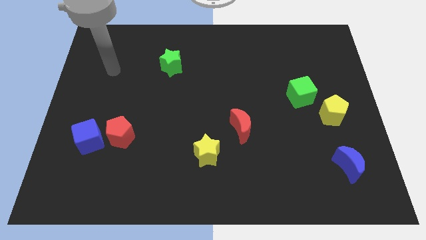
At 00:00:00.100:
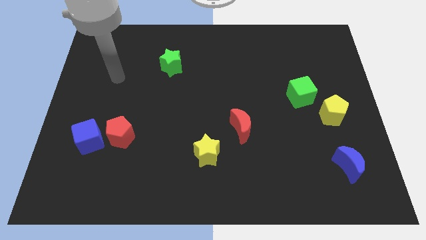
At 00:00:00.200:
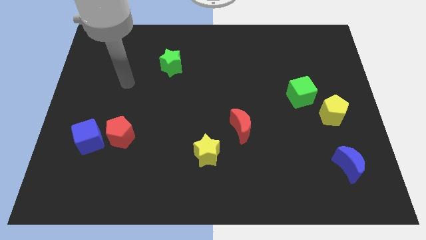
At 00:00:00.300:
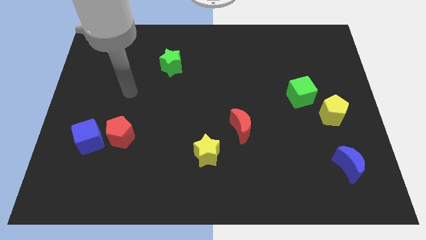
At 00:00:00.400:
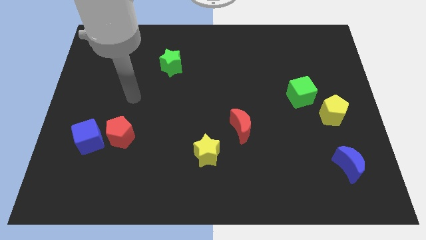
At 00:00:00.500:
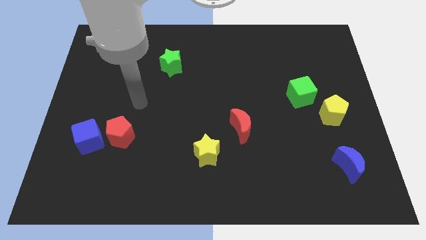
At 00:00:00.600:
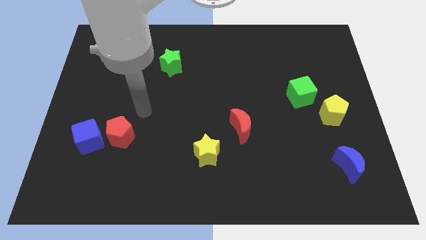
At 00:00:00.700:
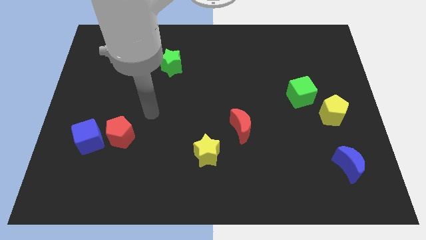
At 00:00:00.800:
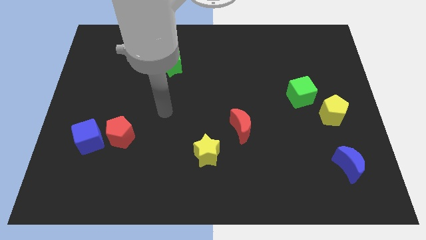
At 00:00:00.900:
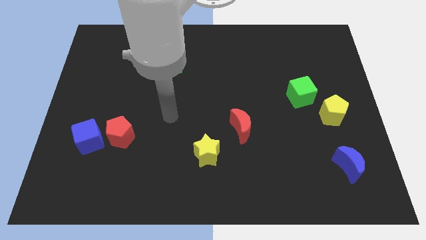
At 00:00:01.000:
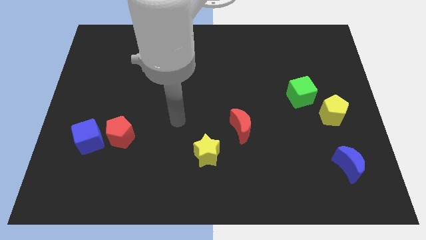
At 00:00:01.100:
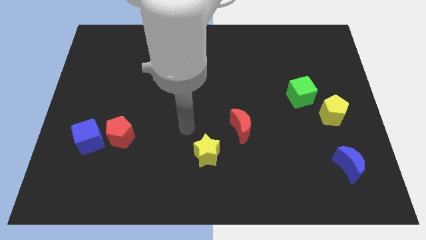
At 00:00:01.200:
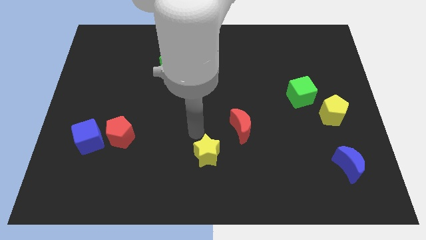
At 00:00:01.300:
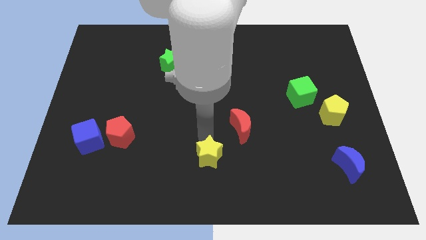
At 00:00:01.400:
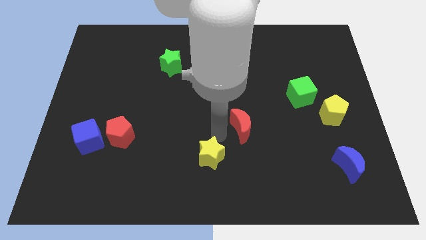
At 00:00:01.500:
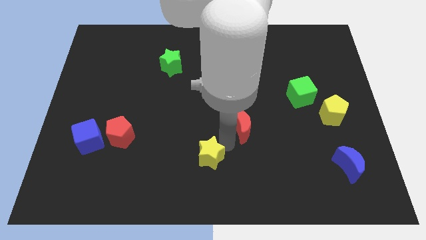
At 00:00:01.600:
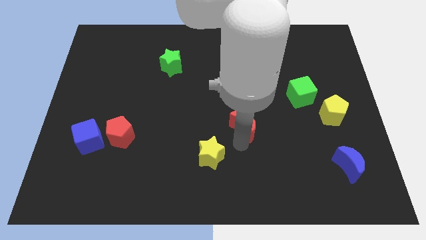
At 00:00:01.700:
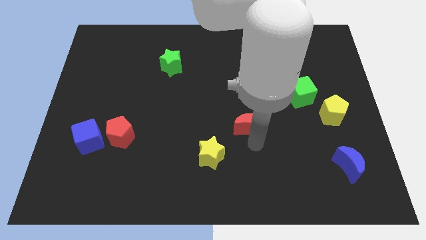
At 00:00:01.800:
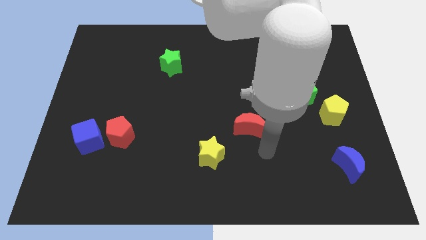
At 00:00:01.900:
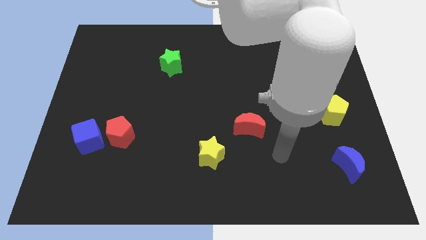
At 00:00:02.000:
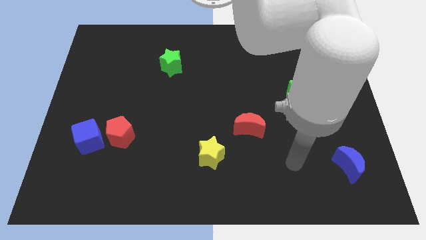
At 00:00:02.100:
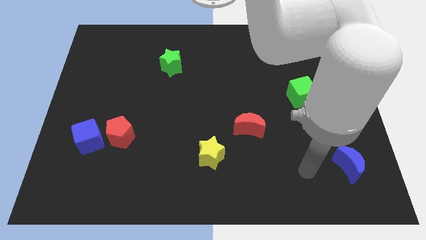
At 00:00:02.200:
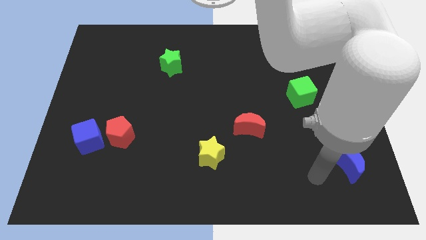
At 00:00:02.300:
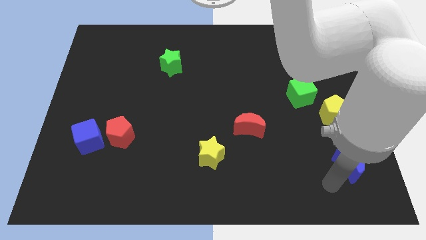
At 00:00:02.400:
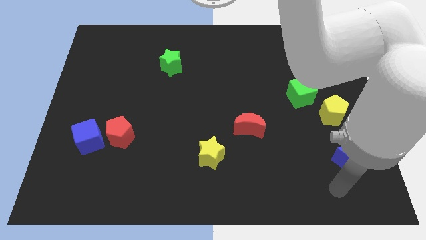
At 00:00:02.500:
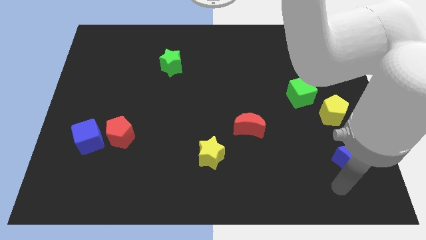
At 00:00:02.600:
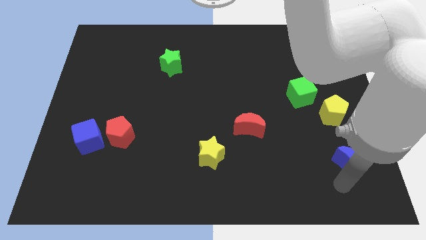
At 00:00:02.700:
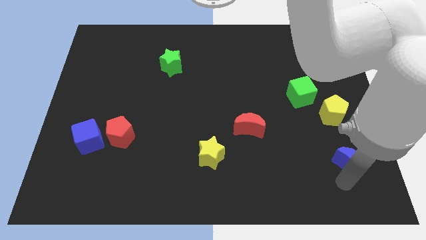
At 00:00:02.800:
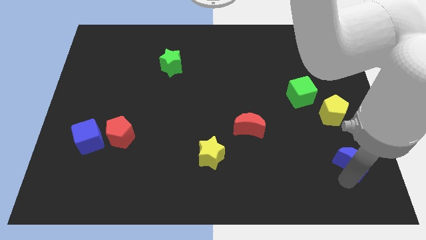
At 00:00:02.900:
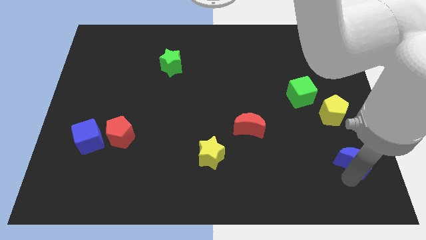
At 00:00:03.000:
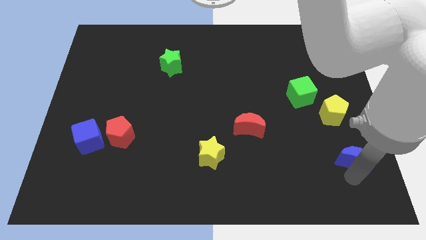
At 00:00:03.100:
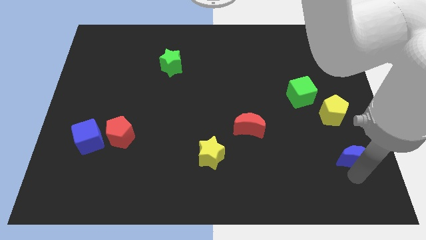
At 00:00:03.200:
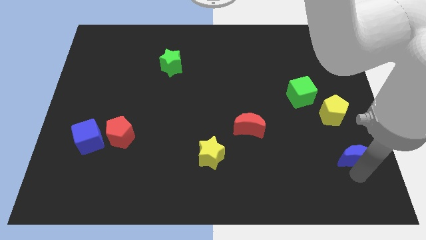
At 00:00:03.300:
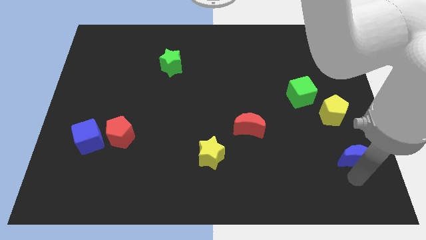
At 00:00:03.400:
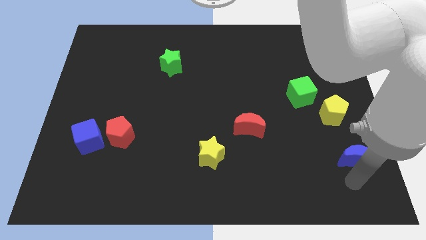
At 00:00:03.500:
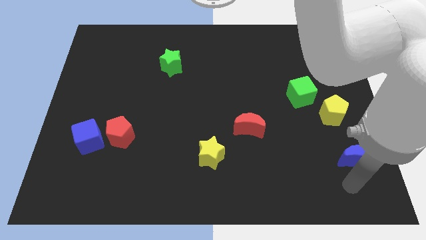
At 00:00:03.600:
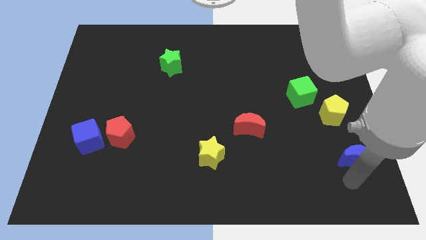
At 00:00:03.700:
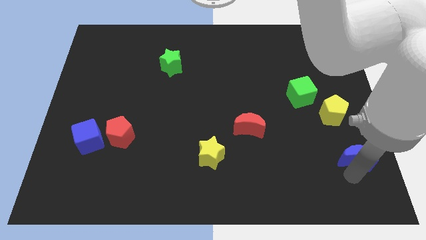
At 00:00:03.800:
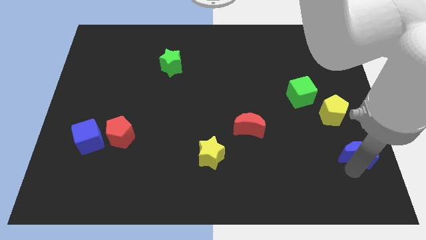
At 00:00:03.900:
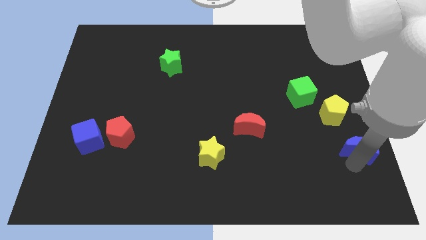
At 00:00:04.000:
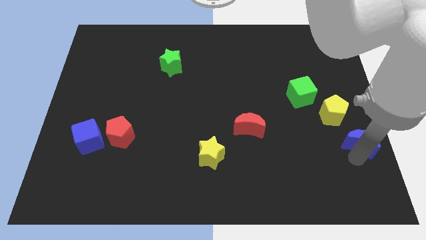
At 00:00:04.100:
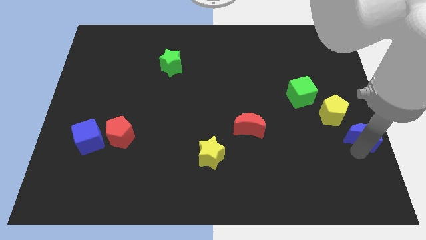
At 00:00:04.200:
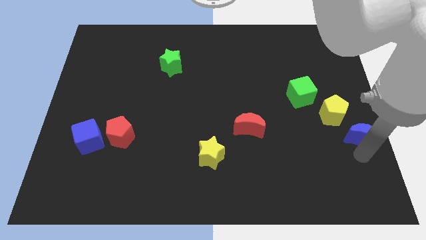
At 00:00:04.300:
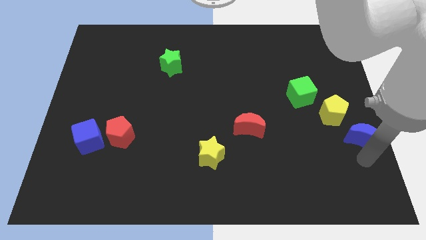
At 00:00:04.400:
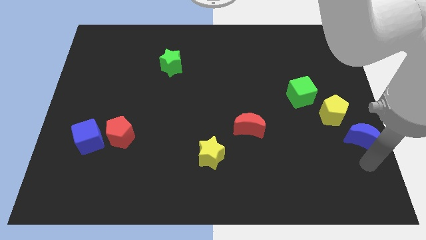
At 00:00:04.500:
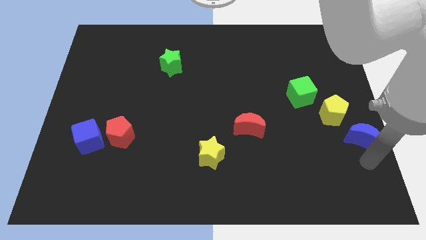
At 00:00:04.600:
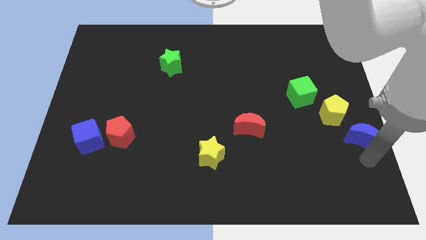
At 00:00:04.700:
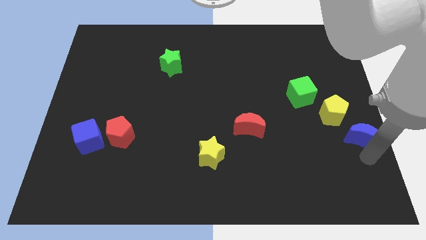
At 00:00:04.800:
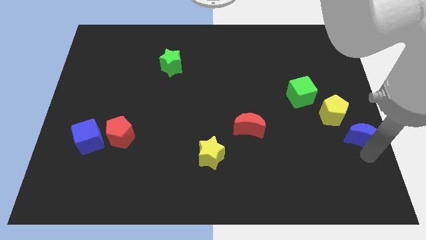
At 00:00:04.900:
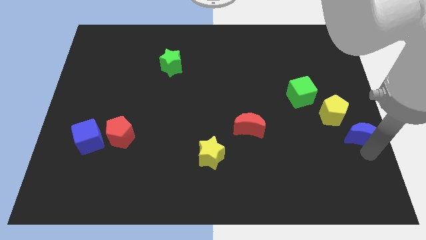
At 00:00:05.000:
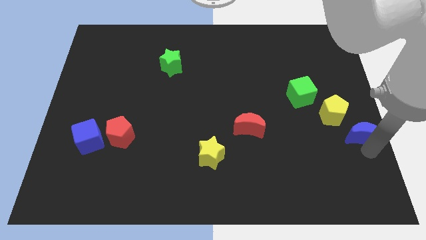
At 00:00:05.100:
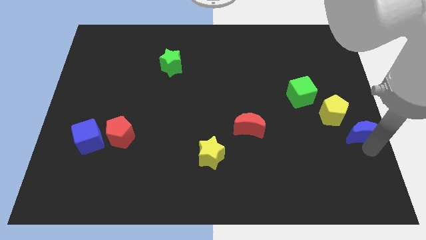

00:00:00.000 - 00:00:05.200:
slide the blue moon slightly up

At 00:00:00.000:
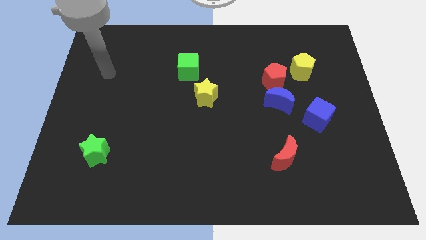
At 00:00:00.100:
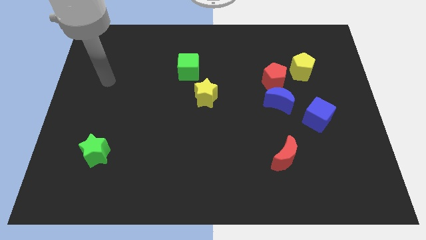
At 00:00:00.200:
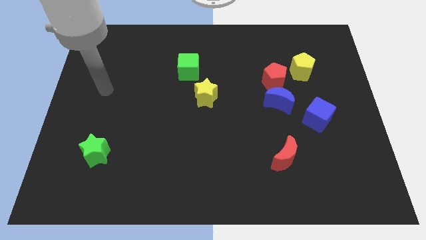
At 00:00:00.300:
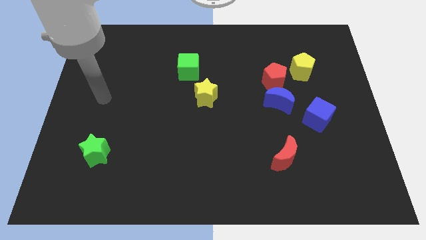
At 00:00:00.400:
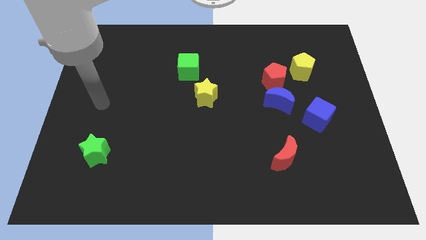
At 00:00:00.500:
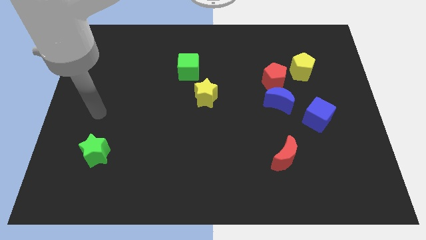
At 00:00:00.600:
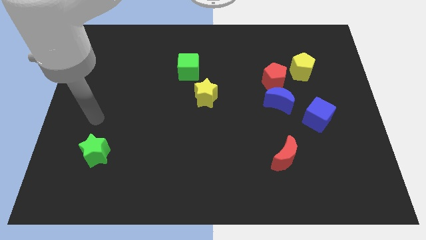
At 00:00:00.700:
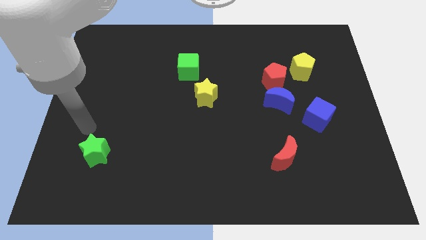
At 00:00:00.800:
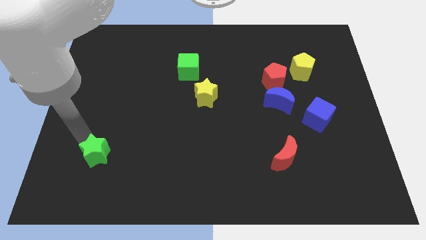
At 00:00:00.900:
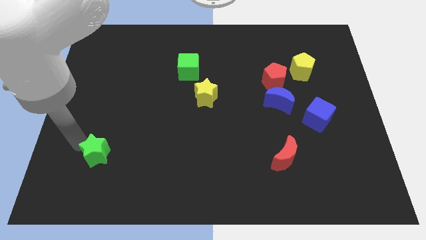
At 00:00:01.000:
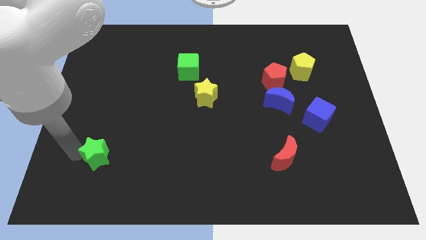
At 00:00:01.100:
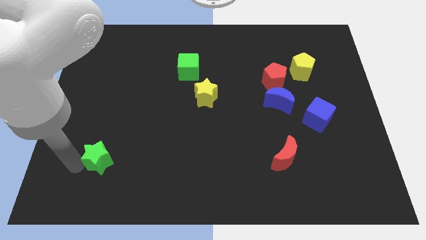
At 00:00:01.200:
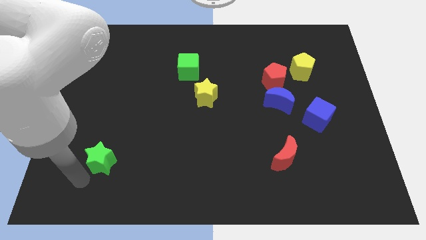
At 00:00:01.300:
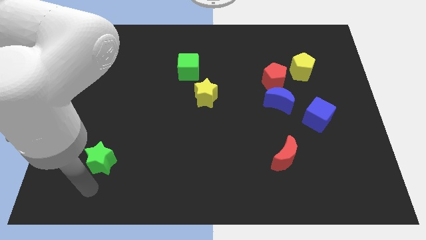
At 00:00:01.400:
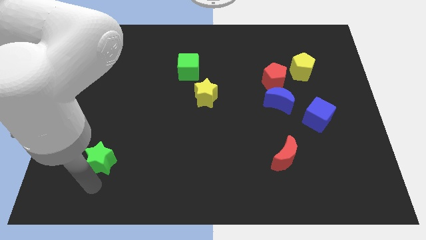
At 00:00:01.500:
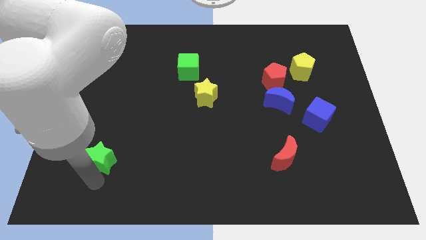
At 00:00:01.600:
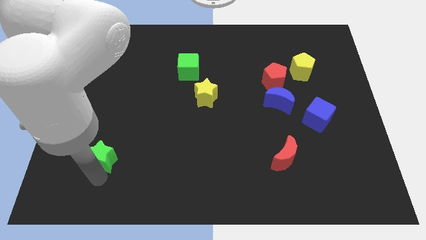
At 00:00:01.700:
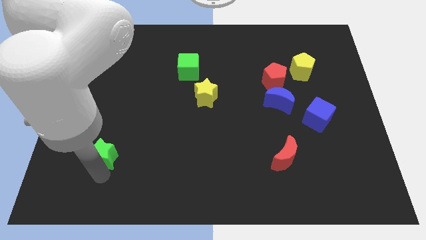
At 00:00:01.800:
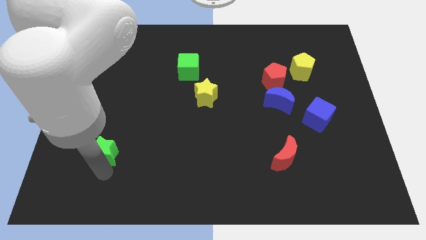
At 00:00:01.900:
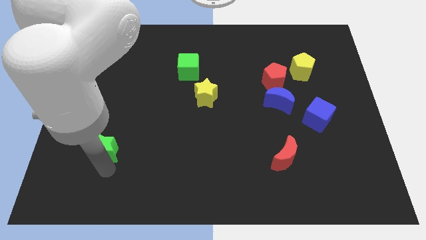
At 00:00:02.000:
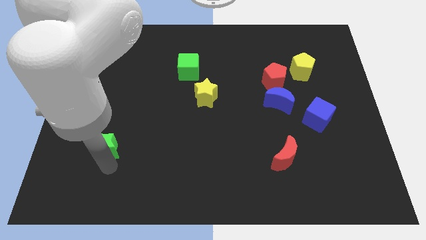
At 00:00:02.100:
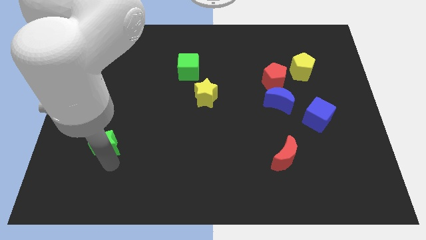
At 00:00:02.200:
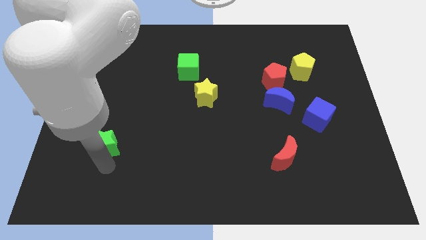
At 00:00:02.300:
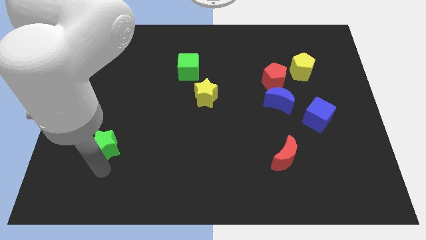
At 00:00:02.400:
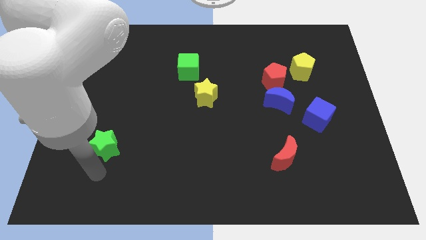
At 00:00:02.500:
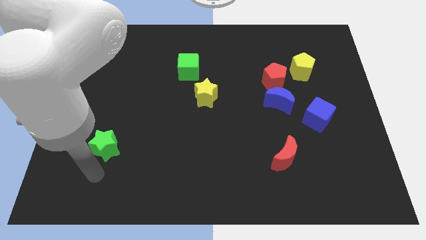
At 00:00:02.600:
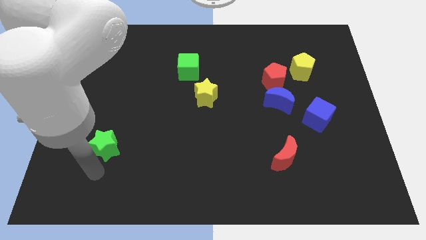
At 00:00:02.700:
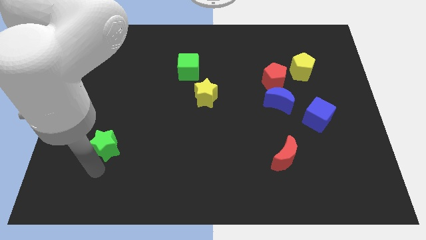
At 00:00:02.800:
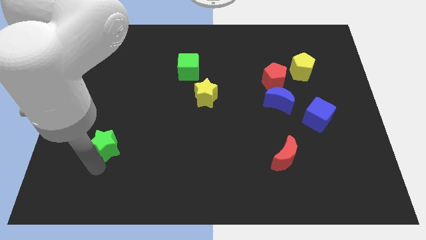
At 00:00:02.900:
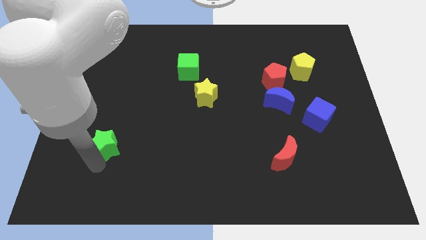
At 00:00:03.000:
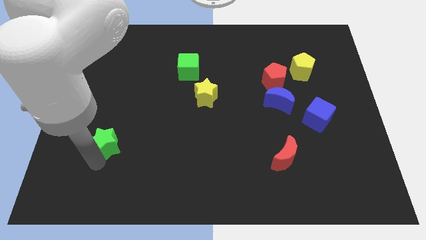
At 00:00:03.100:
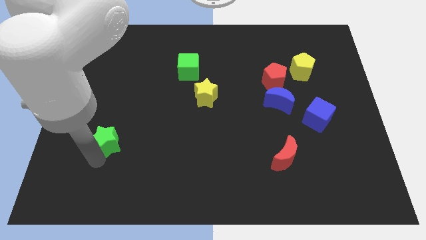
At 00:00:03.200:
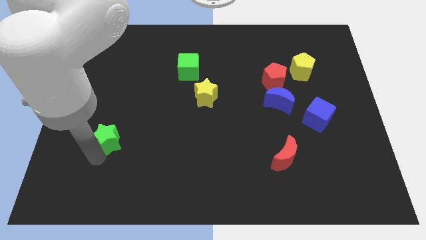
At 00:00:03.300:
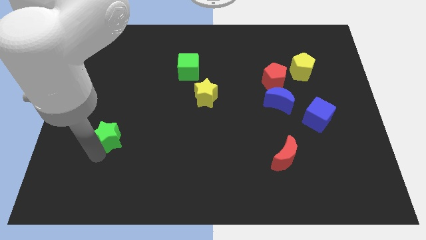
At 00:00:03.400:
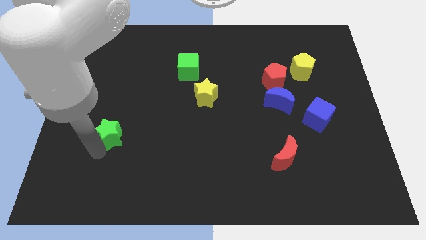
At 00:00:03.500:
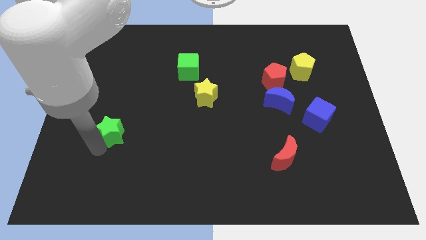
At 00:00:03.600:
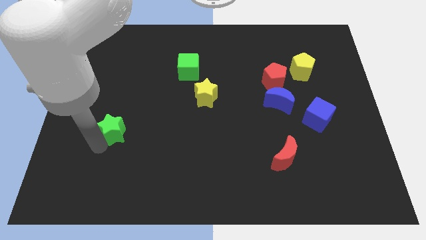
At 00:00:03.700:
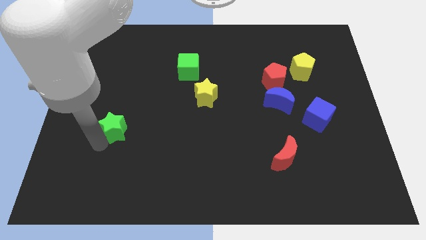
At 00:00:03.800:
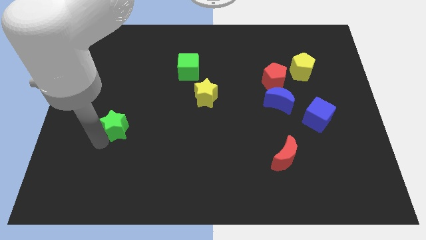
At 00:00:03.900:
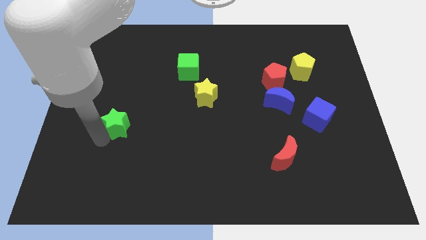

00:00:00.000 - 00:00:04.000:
slide the green star diagonally up and right a bit
